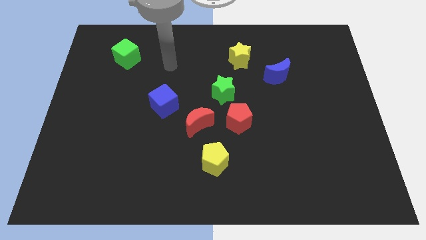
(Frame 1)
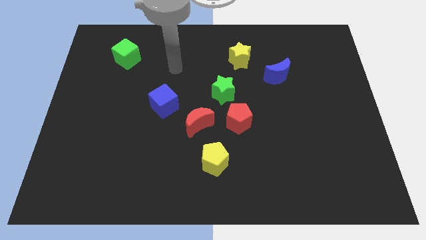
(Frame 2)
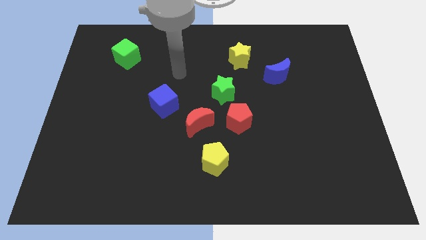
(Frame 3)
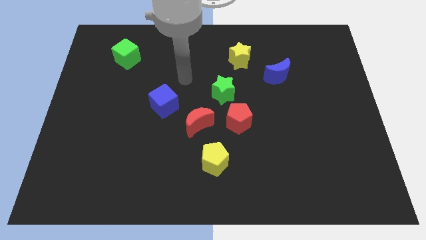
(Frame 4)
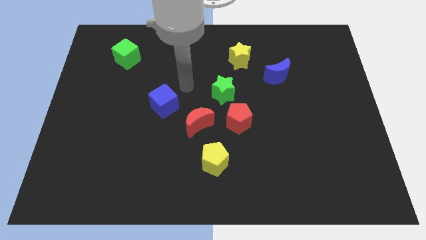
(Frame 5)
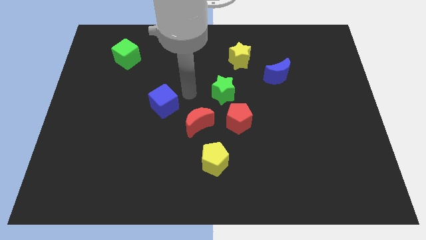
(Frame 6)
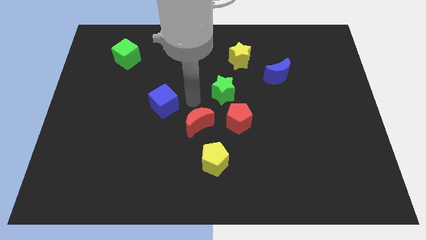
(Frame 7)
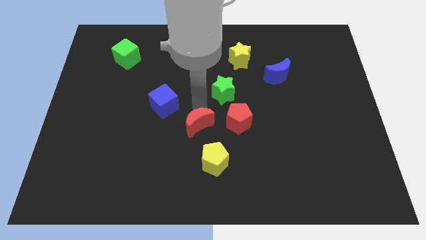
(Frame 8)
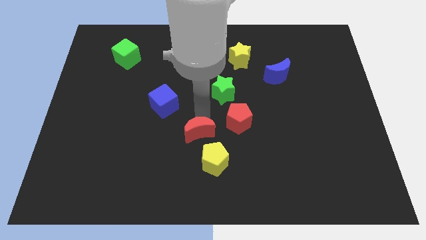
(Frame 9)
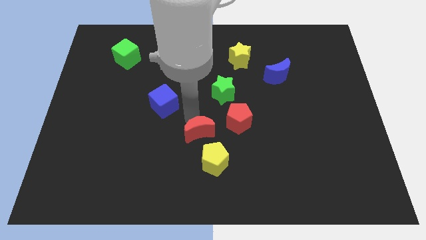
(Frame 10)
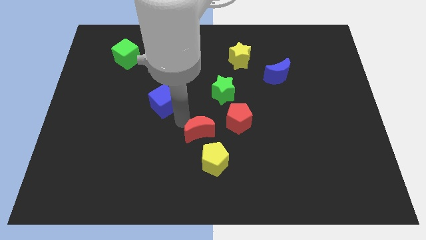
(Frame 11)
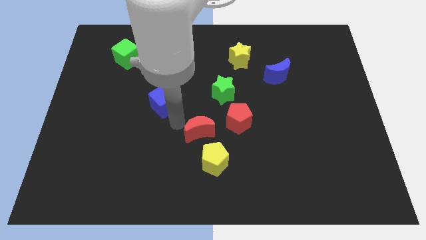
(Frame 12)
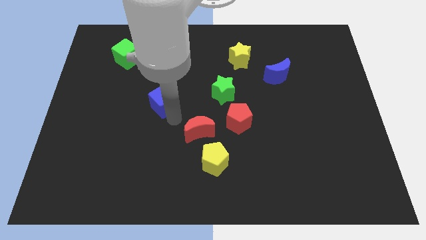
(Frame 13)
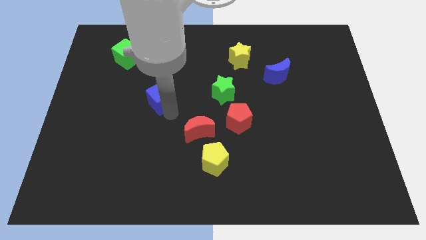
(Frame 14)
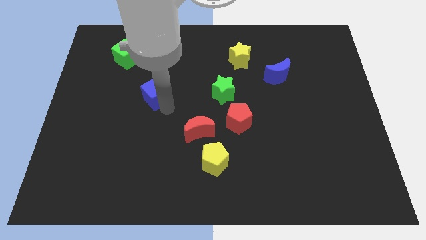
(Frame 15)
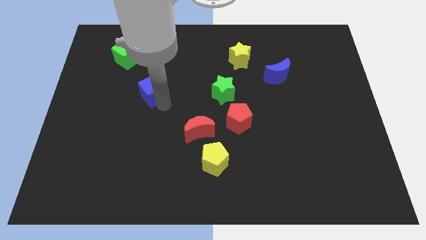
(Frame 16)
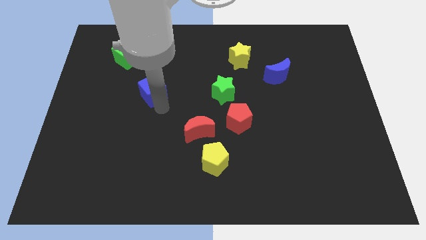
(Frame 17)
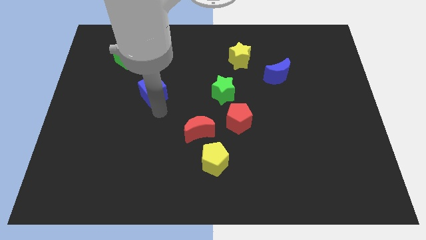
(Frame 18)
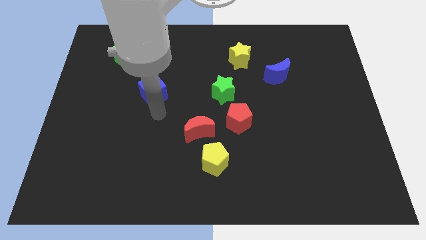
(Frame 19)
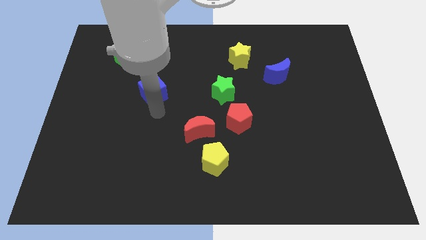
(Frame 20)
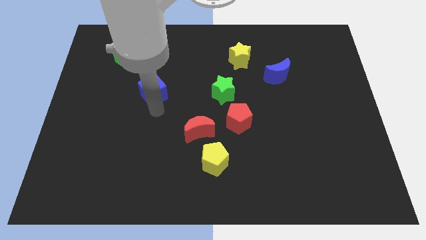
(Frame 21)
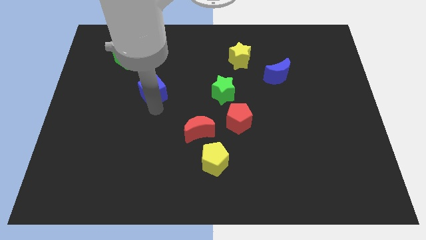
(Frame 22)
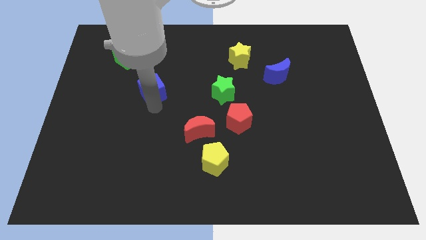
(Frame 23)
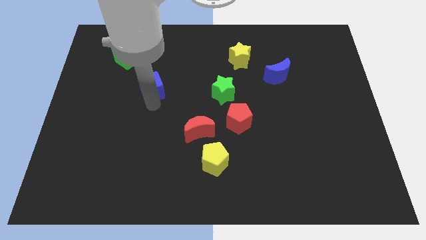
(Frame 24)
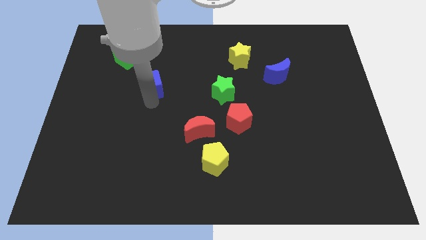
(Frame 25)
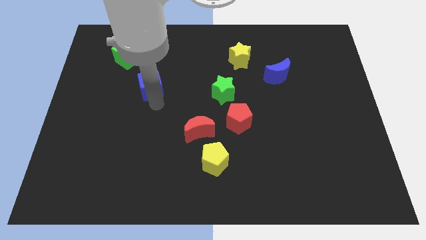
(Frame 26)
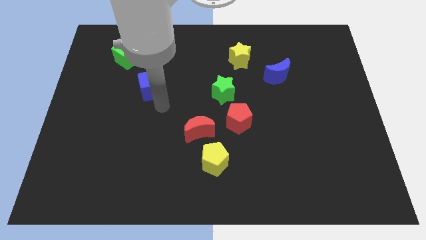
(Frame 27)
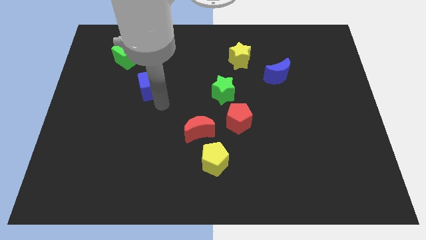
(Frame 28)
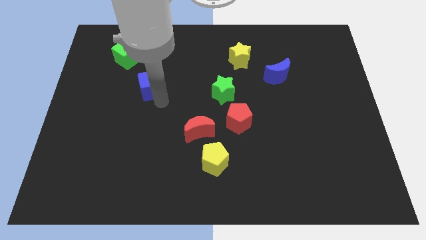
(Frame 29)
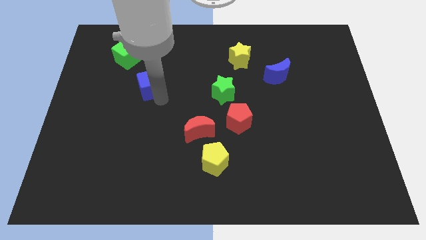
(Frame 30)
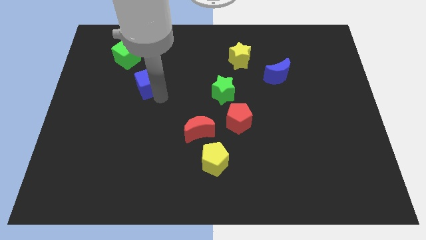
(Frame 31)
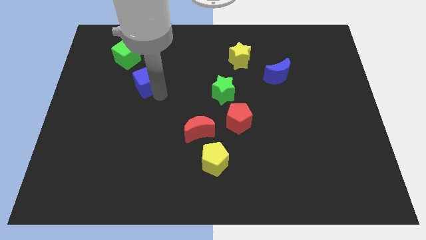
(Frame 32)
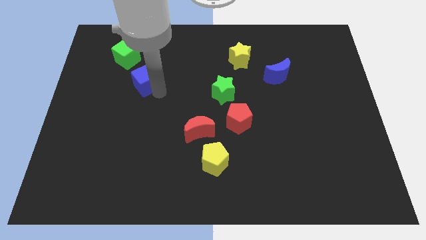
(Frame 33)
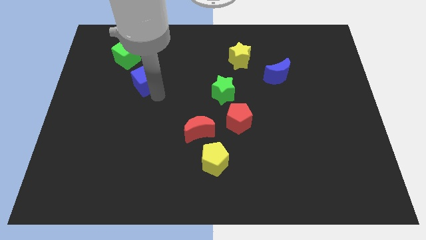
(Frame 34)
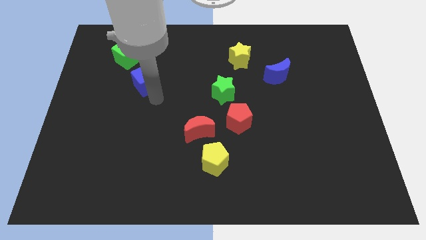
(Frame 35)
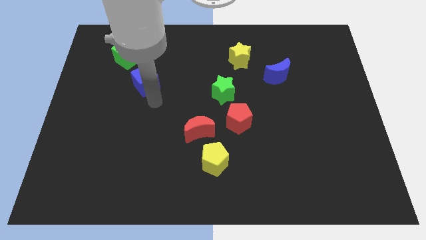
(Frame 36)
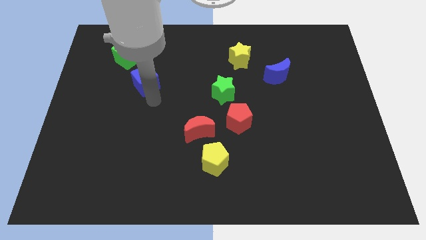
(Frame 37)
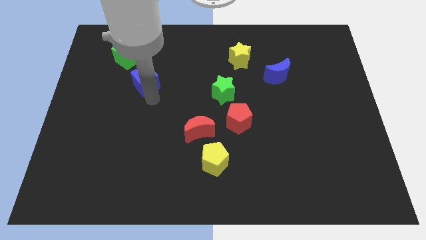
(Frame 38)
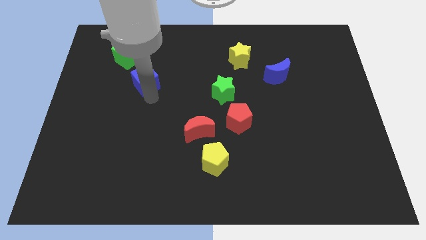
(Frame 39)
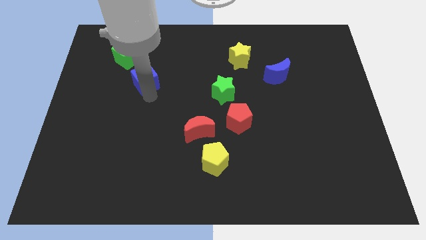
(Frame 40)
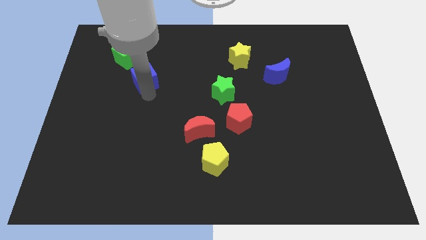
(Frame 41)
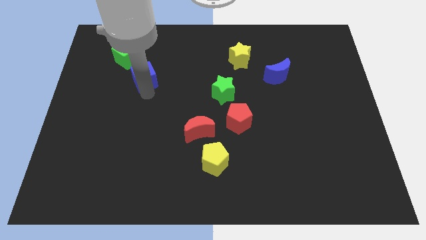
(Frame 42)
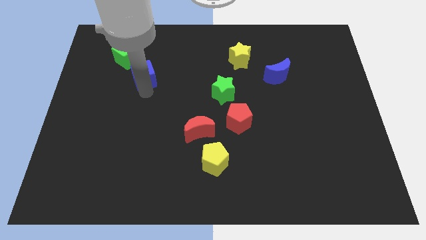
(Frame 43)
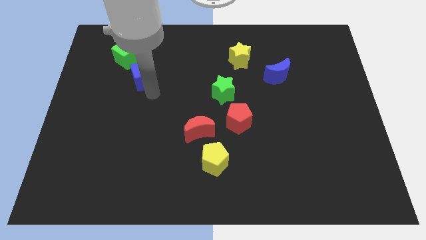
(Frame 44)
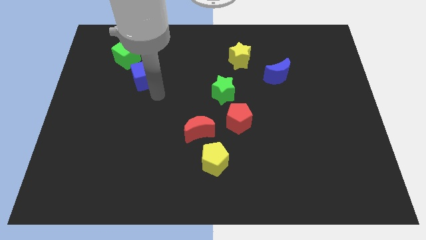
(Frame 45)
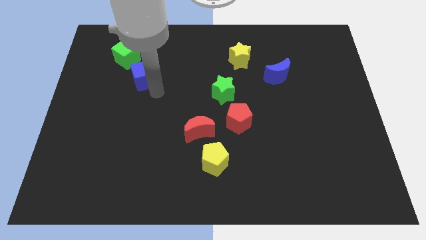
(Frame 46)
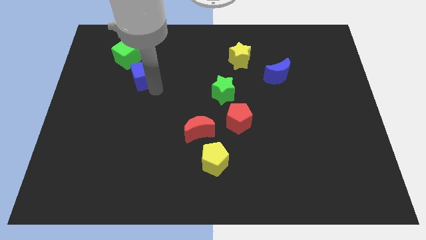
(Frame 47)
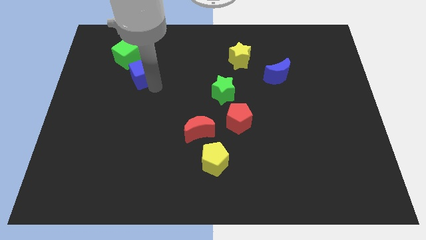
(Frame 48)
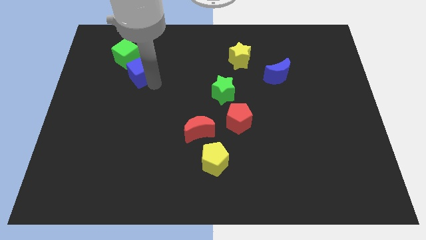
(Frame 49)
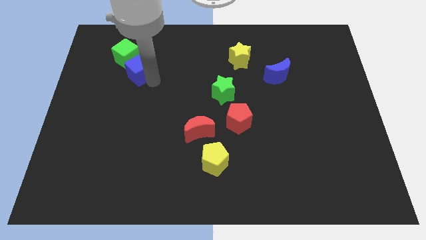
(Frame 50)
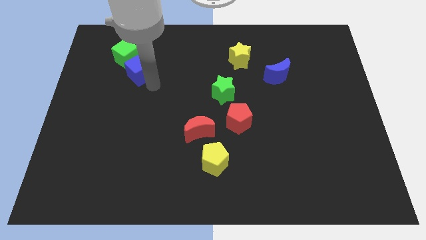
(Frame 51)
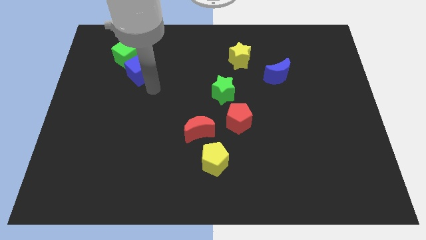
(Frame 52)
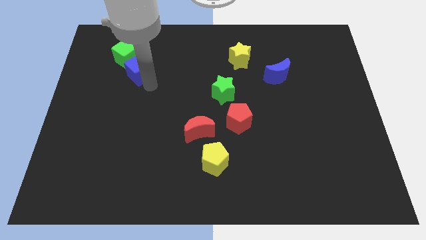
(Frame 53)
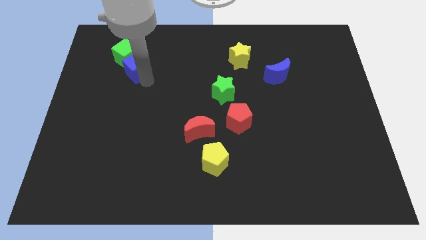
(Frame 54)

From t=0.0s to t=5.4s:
push the blue cube to the green cube

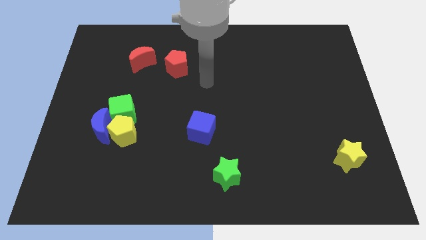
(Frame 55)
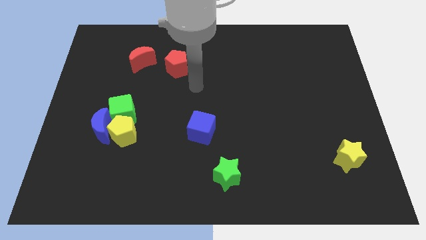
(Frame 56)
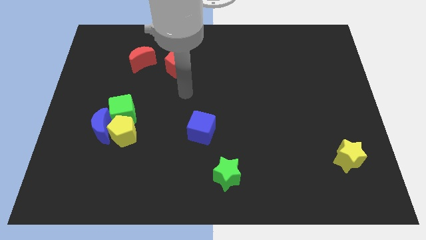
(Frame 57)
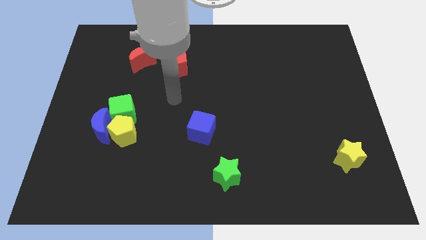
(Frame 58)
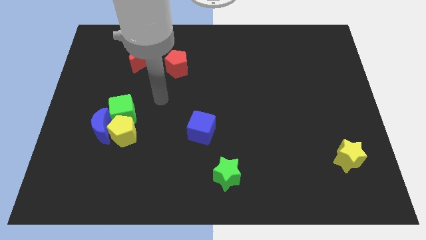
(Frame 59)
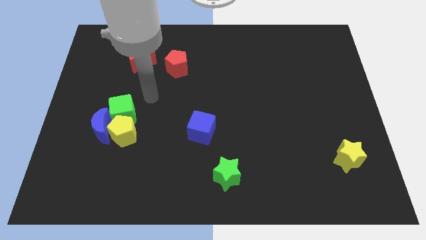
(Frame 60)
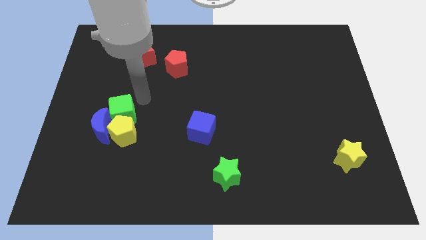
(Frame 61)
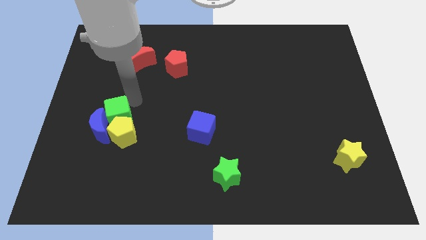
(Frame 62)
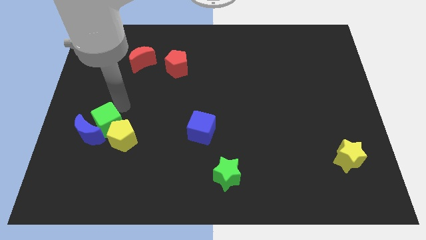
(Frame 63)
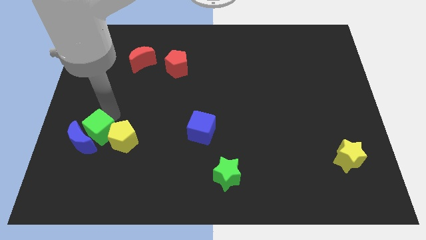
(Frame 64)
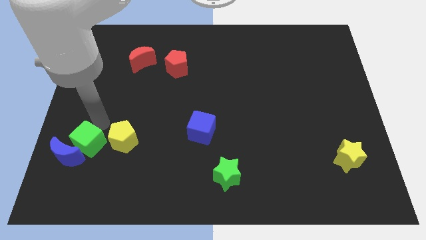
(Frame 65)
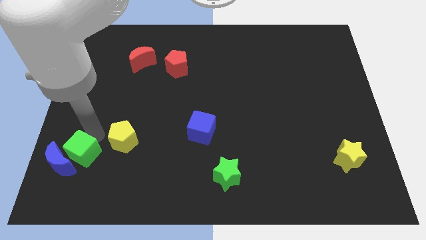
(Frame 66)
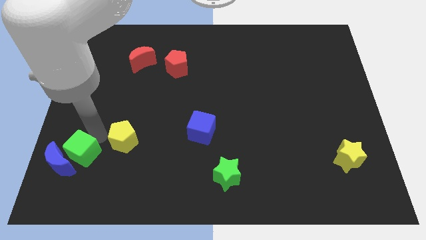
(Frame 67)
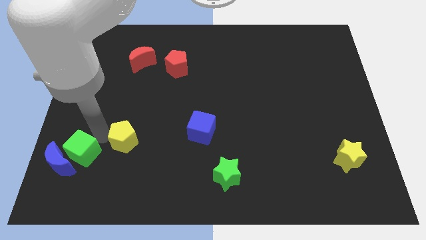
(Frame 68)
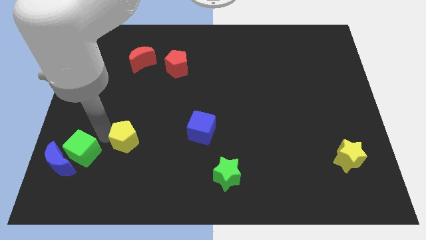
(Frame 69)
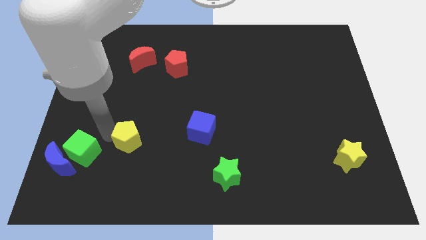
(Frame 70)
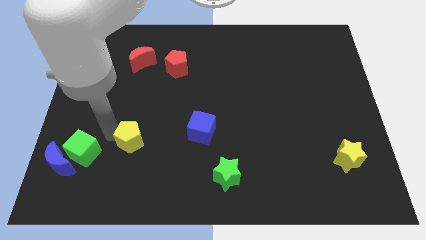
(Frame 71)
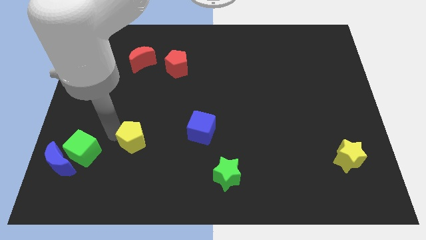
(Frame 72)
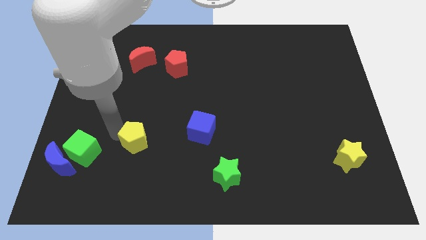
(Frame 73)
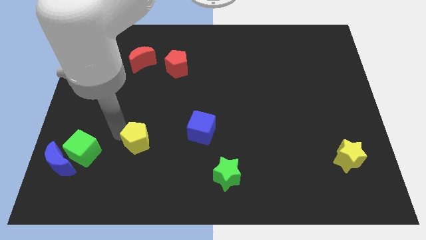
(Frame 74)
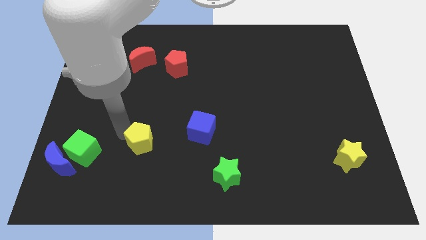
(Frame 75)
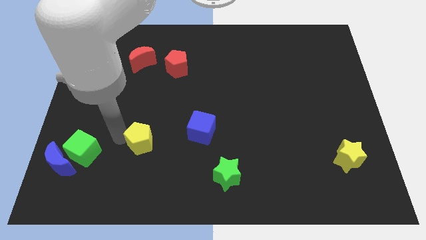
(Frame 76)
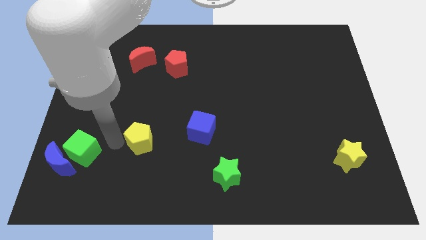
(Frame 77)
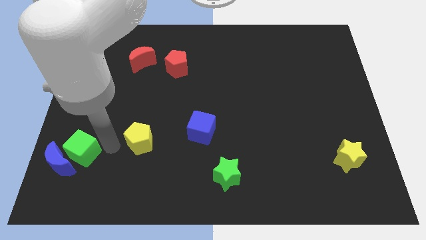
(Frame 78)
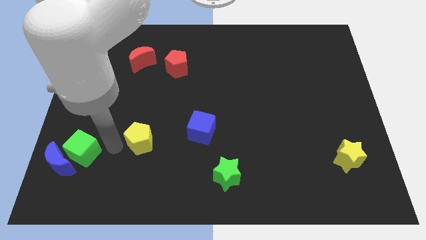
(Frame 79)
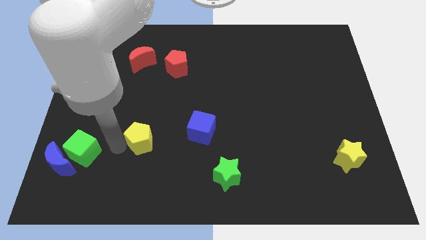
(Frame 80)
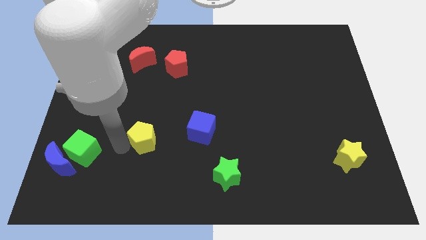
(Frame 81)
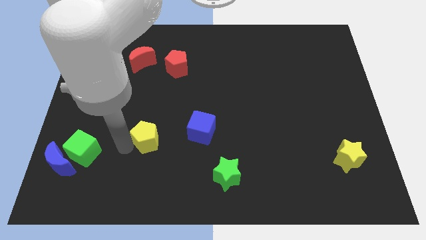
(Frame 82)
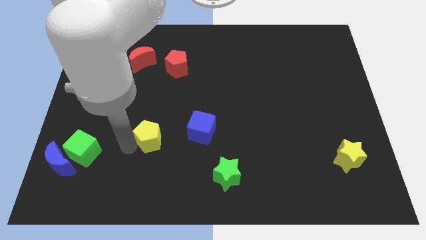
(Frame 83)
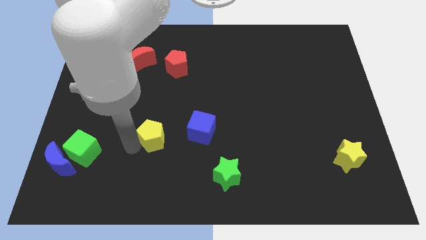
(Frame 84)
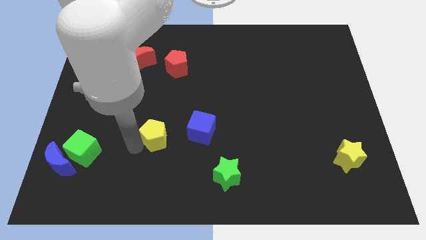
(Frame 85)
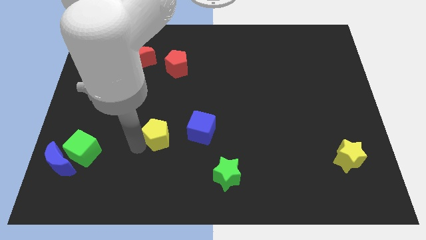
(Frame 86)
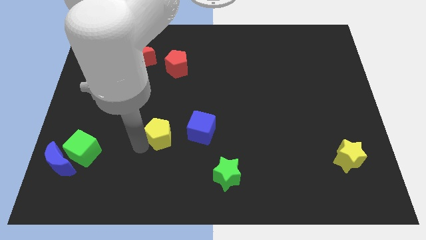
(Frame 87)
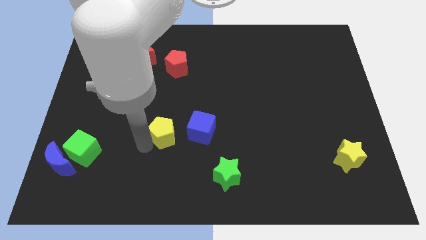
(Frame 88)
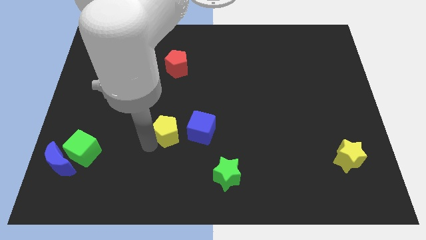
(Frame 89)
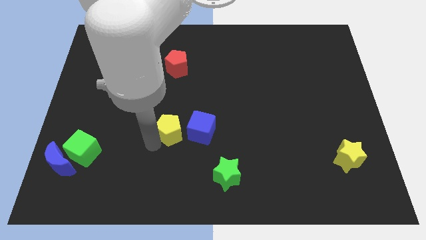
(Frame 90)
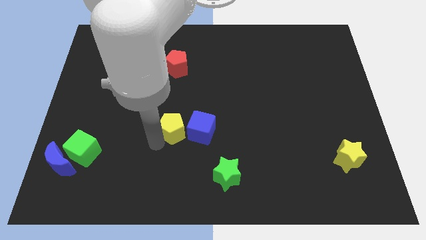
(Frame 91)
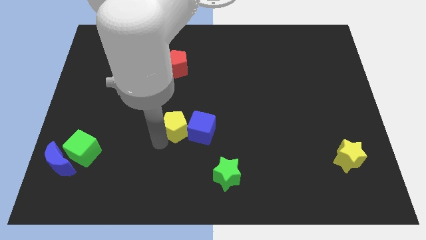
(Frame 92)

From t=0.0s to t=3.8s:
slide the yellow pentagon close to the blue cube
